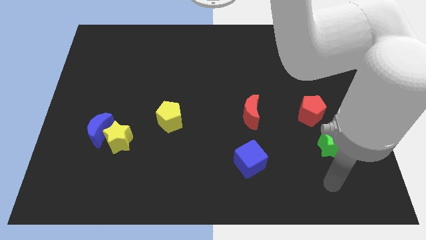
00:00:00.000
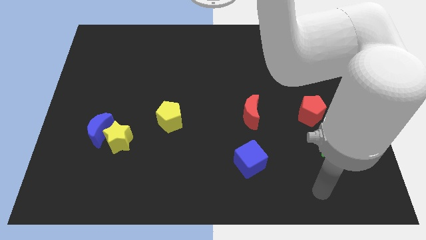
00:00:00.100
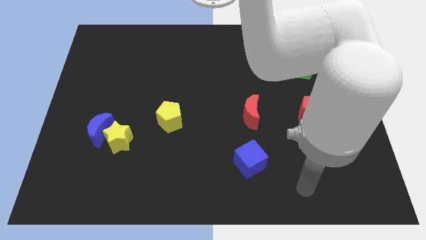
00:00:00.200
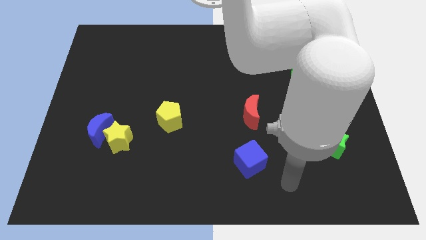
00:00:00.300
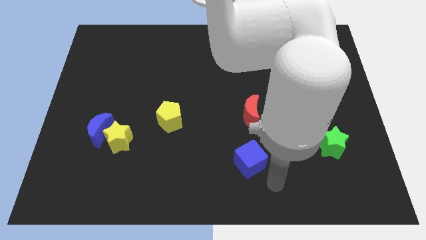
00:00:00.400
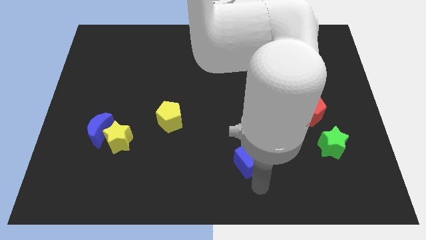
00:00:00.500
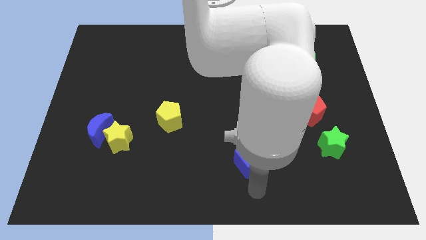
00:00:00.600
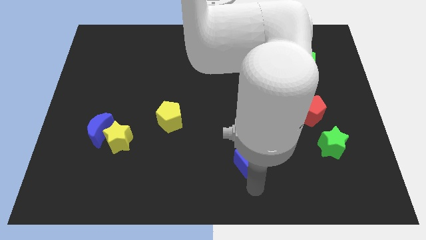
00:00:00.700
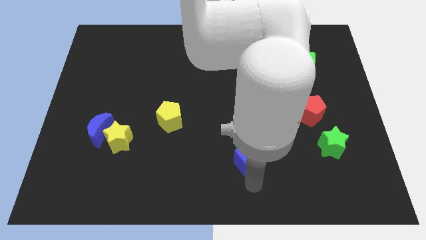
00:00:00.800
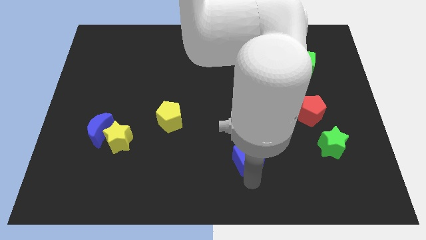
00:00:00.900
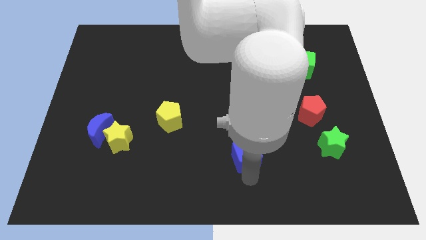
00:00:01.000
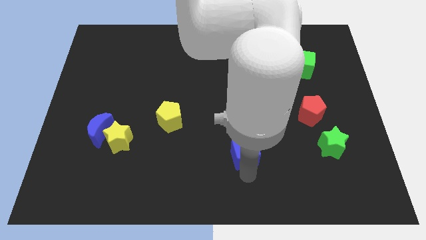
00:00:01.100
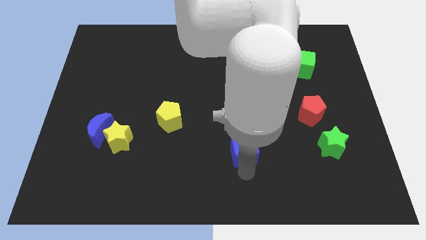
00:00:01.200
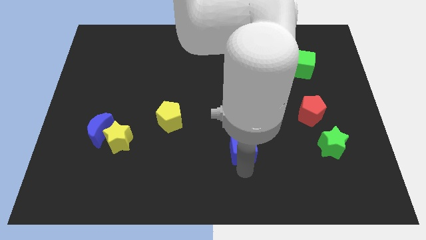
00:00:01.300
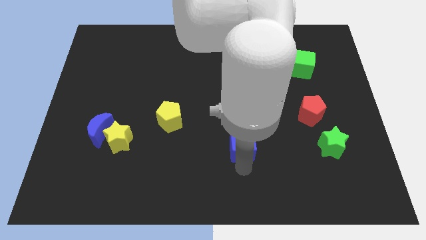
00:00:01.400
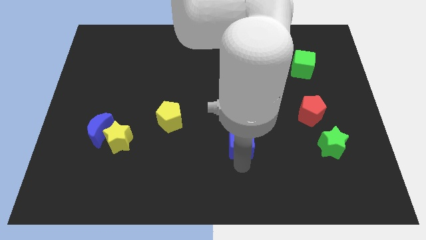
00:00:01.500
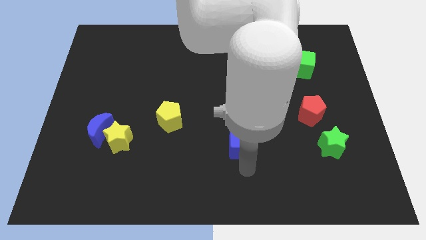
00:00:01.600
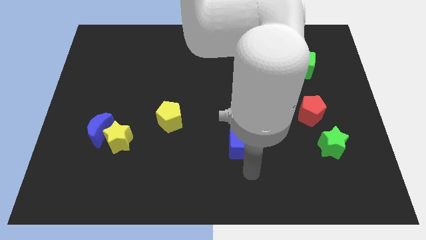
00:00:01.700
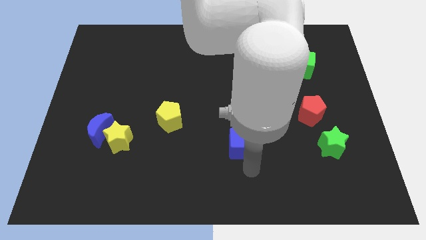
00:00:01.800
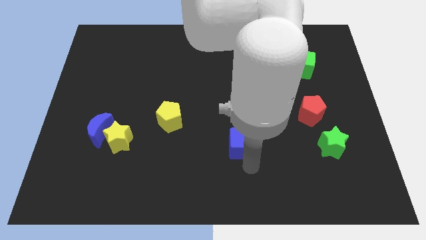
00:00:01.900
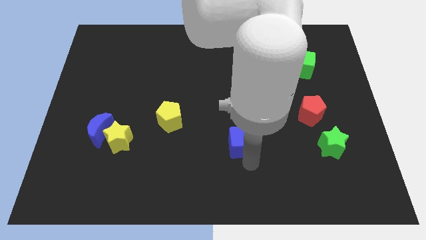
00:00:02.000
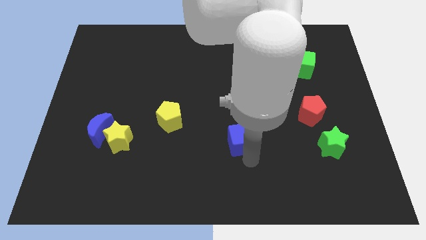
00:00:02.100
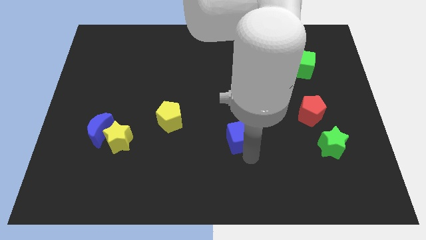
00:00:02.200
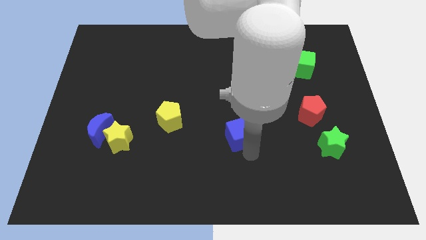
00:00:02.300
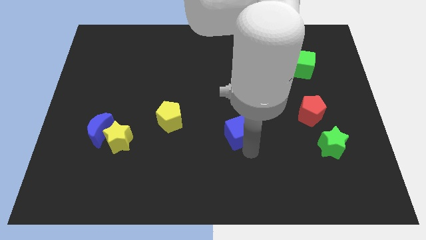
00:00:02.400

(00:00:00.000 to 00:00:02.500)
push the blue cube up slightly

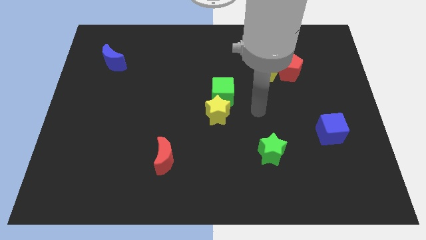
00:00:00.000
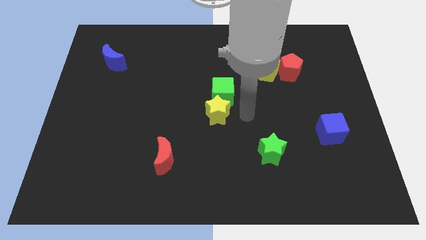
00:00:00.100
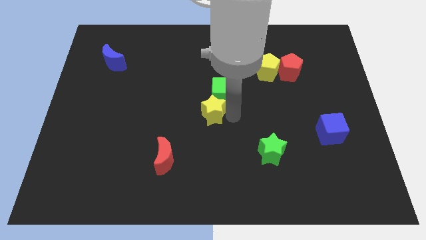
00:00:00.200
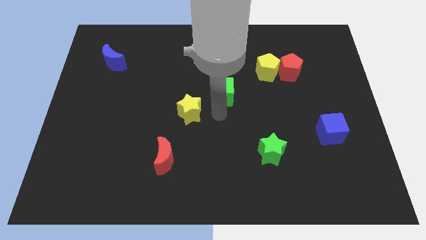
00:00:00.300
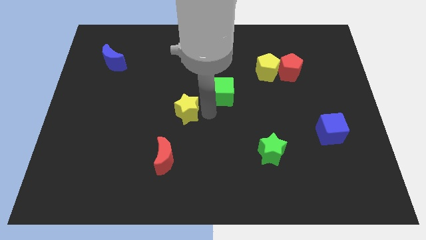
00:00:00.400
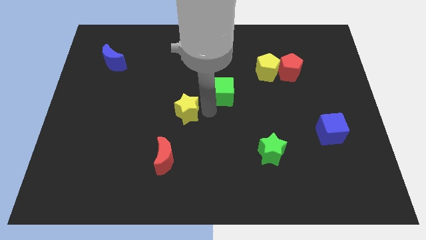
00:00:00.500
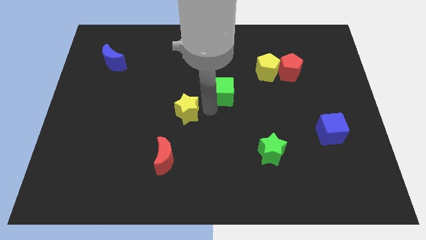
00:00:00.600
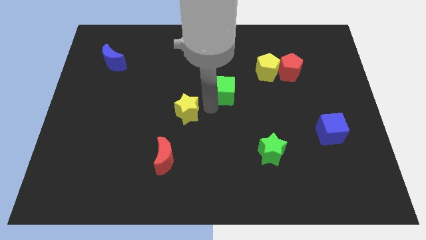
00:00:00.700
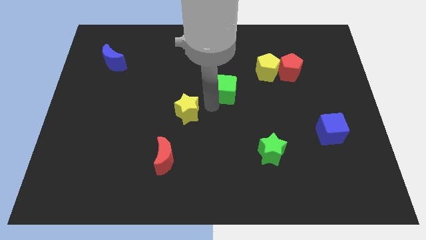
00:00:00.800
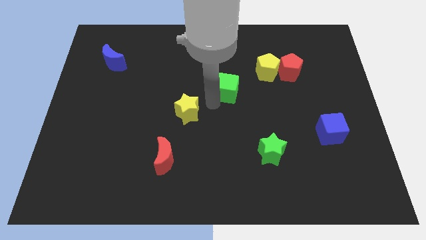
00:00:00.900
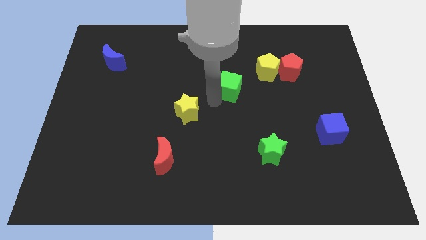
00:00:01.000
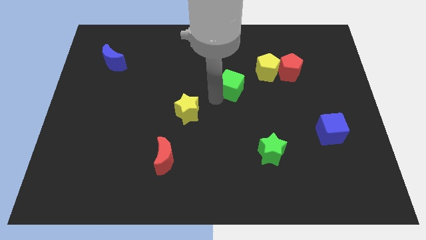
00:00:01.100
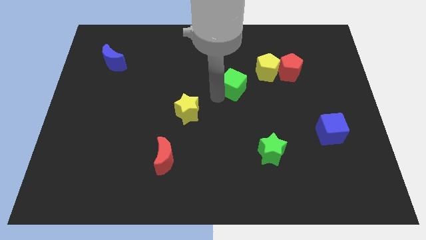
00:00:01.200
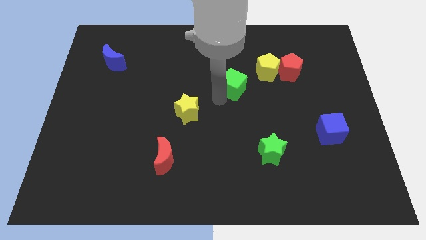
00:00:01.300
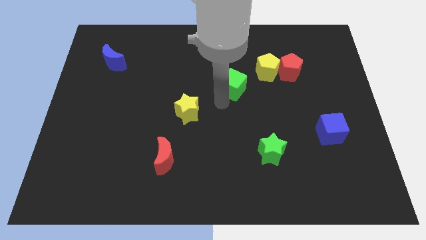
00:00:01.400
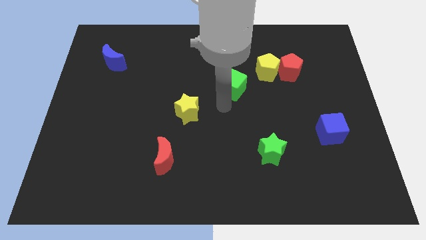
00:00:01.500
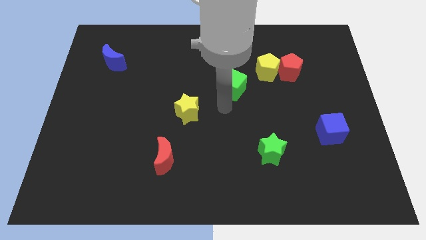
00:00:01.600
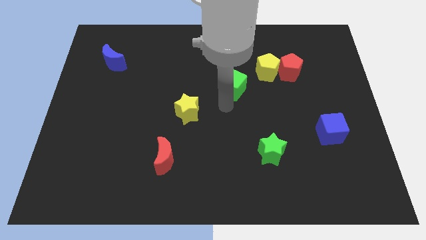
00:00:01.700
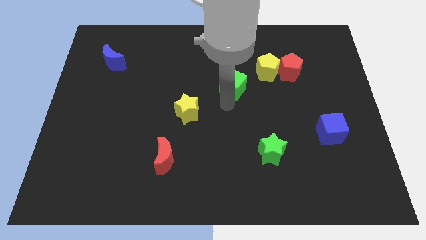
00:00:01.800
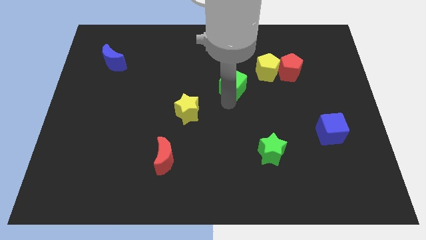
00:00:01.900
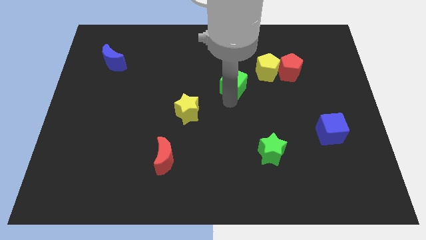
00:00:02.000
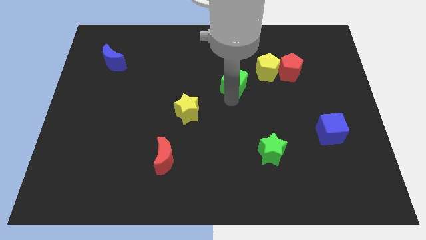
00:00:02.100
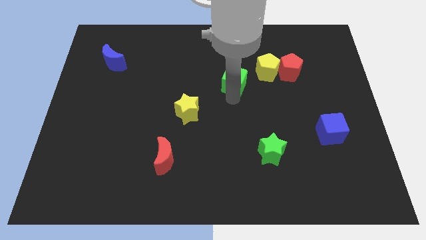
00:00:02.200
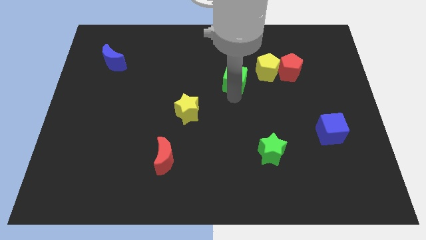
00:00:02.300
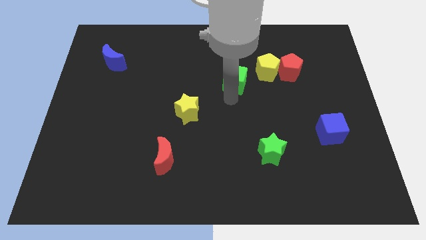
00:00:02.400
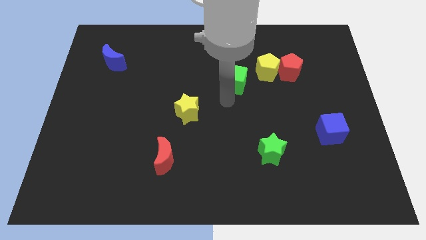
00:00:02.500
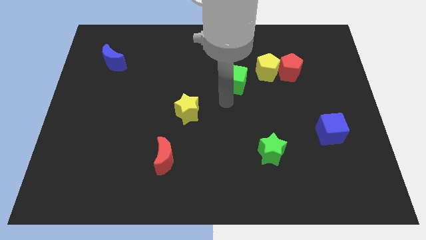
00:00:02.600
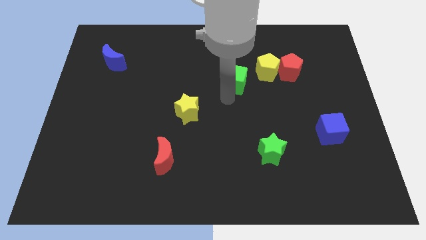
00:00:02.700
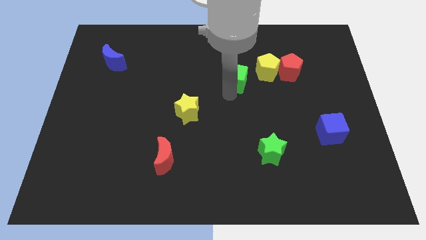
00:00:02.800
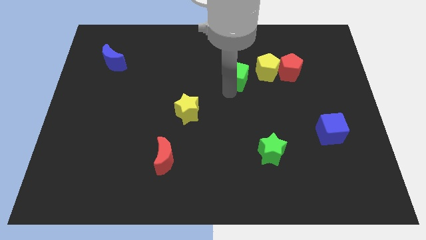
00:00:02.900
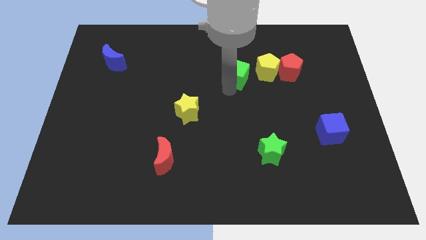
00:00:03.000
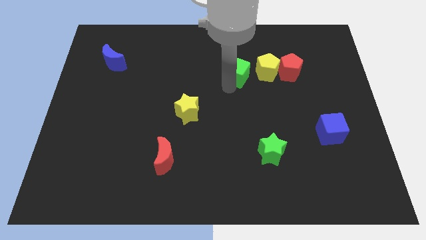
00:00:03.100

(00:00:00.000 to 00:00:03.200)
move the green cube diagonally up and to the right slightly

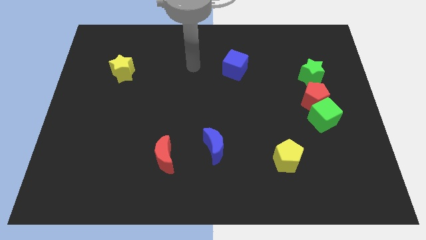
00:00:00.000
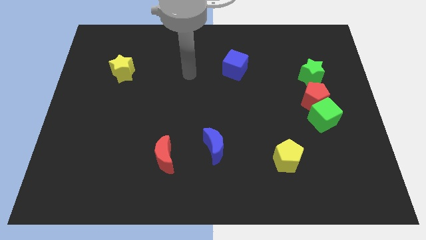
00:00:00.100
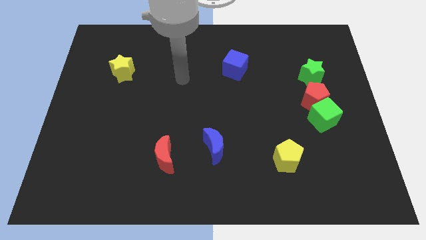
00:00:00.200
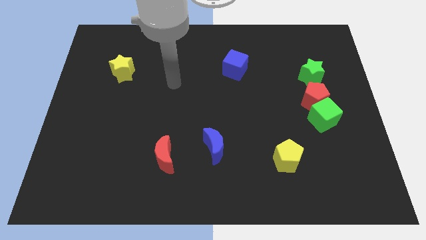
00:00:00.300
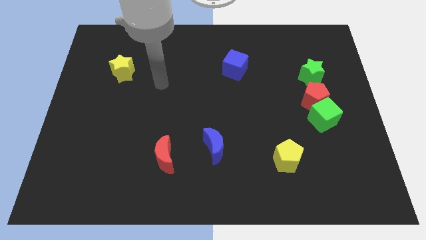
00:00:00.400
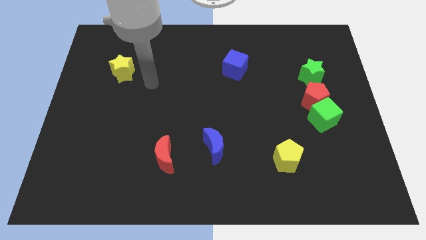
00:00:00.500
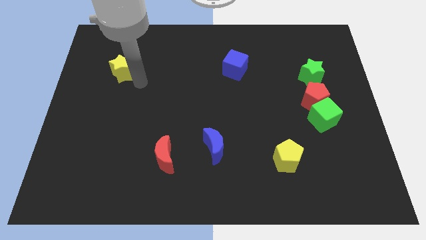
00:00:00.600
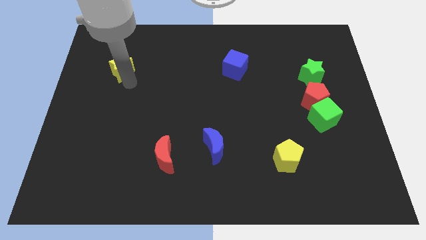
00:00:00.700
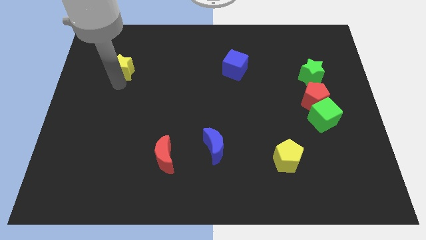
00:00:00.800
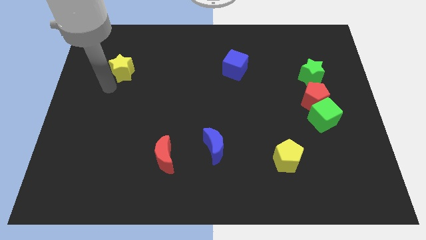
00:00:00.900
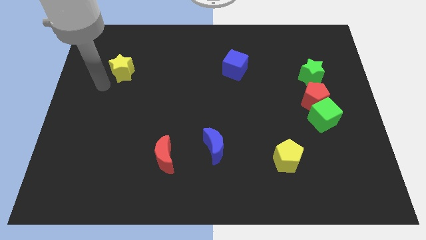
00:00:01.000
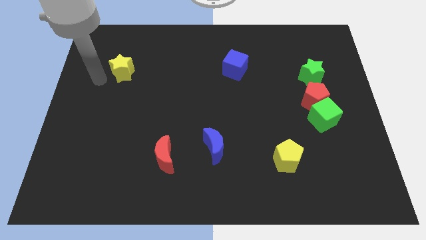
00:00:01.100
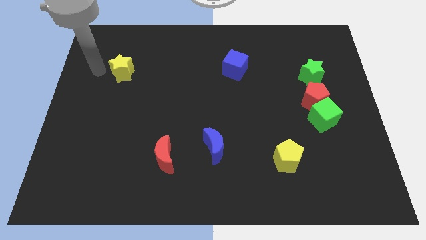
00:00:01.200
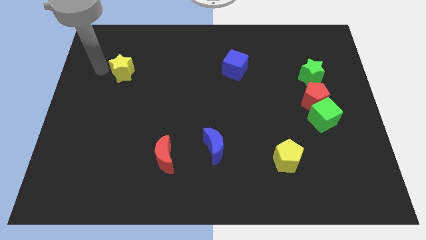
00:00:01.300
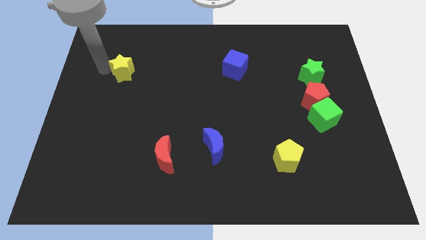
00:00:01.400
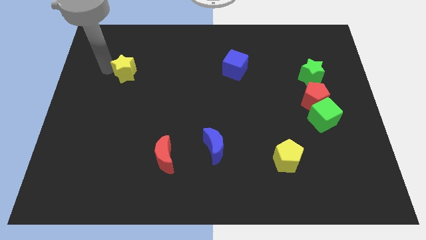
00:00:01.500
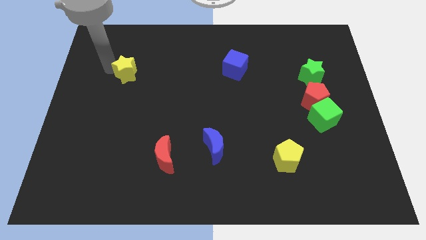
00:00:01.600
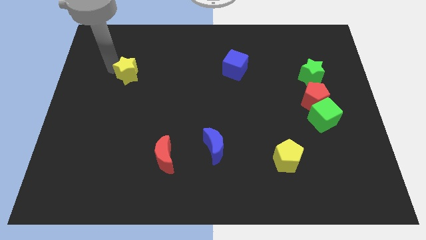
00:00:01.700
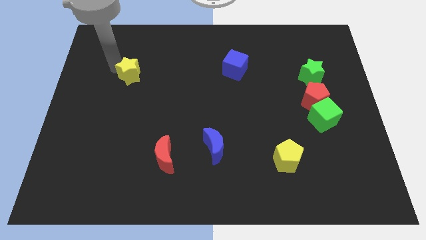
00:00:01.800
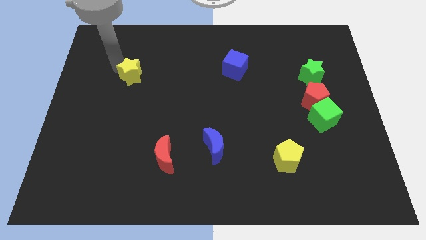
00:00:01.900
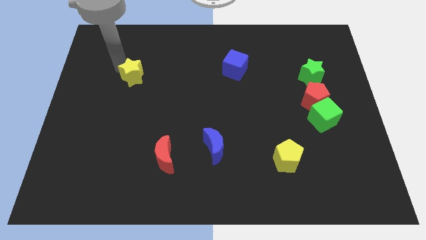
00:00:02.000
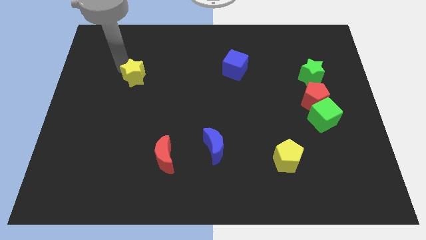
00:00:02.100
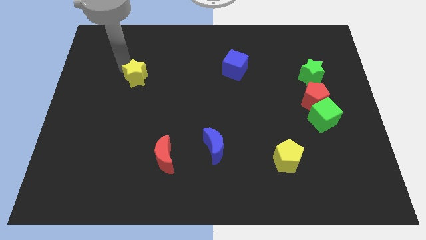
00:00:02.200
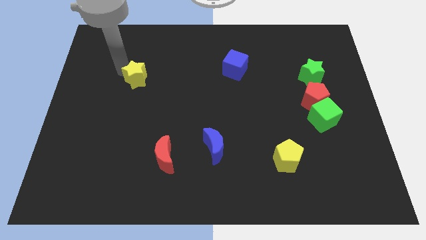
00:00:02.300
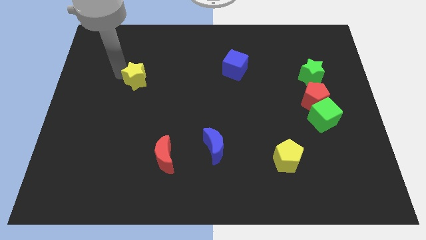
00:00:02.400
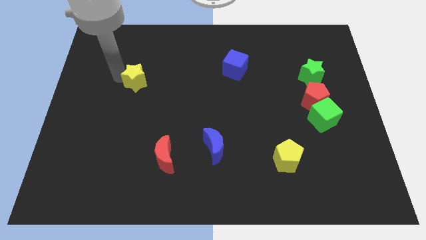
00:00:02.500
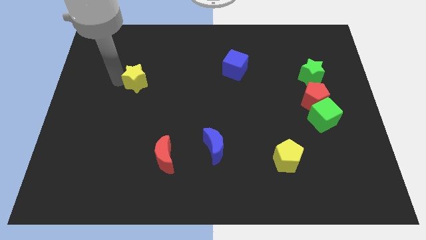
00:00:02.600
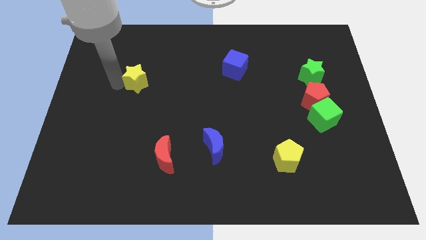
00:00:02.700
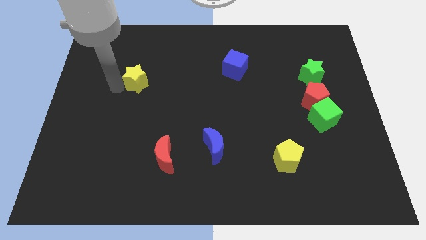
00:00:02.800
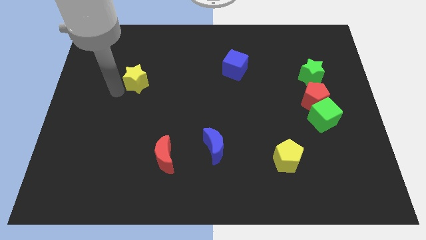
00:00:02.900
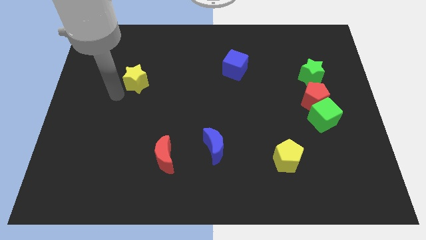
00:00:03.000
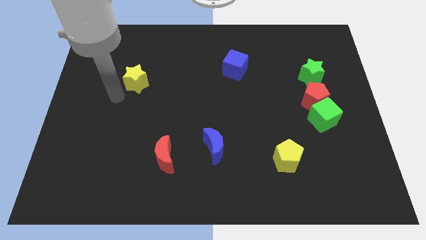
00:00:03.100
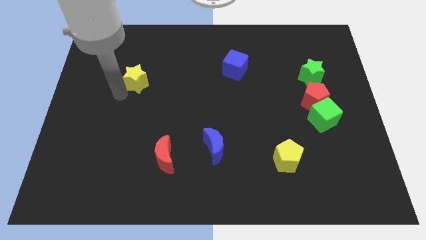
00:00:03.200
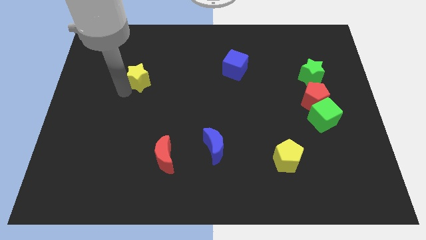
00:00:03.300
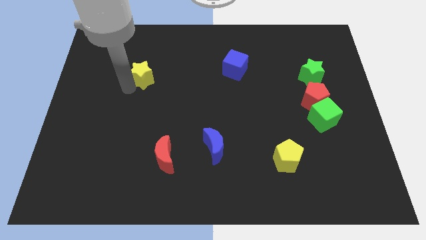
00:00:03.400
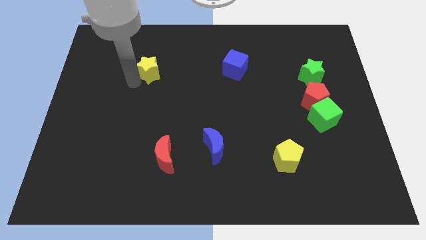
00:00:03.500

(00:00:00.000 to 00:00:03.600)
push the yellow star right a bit
